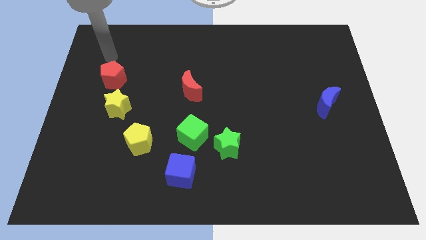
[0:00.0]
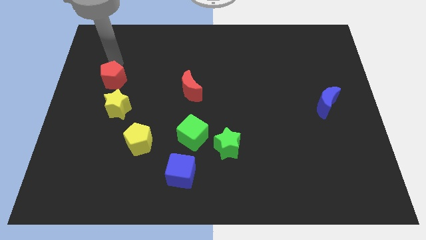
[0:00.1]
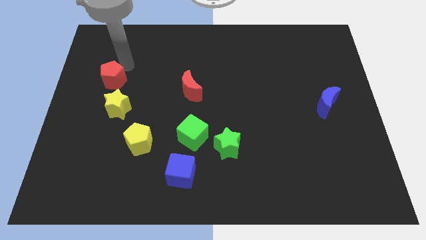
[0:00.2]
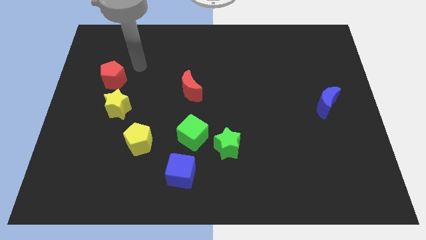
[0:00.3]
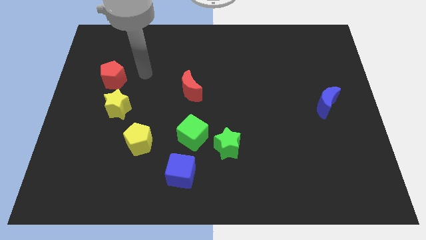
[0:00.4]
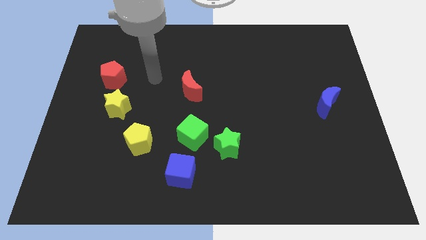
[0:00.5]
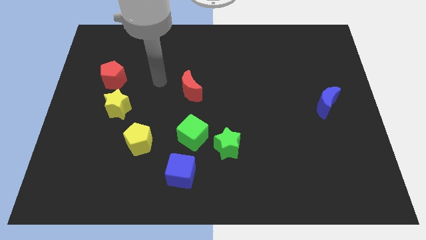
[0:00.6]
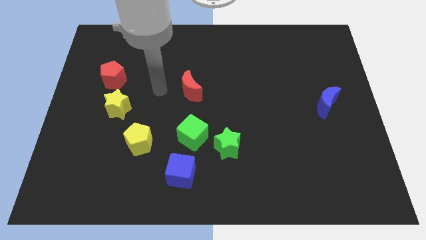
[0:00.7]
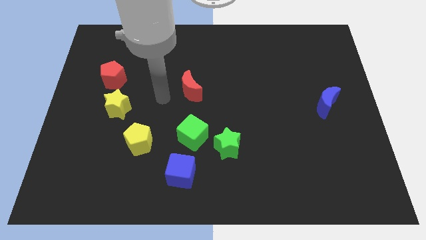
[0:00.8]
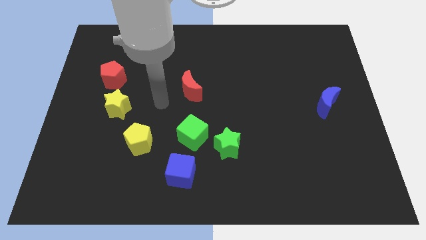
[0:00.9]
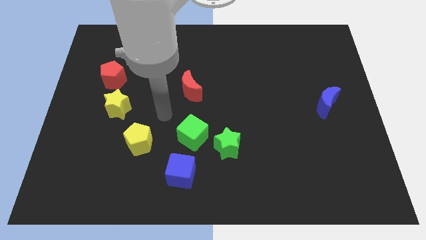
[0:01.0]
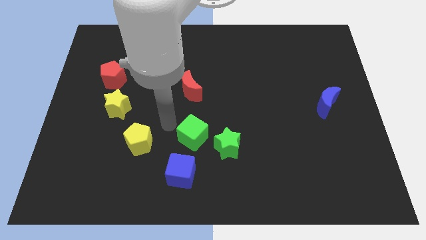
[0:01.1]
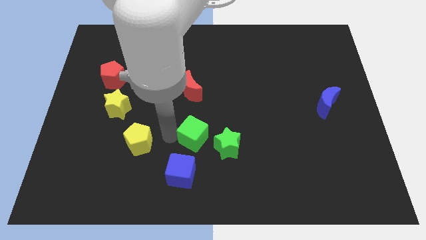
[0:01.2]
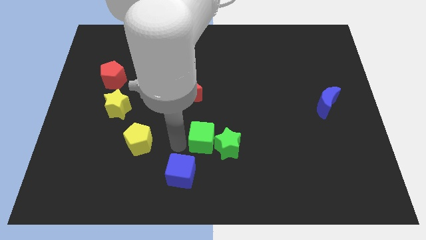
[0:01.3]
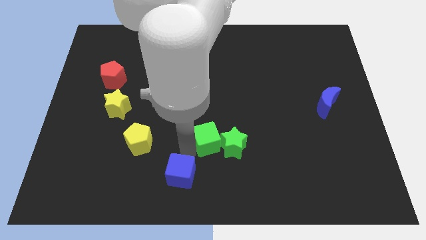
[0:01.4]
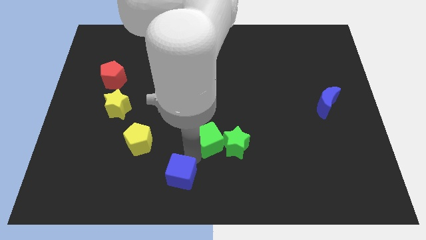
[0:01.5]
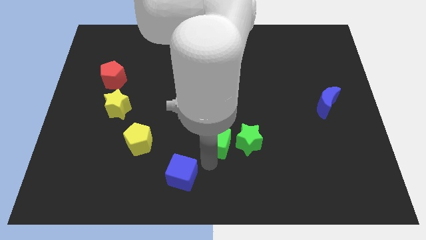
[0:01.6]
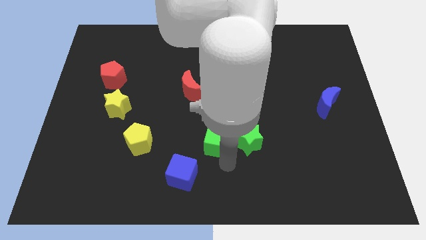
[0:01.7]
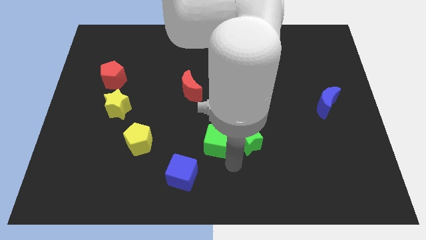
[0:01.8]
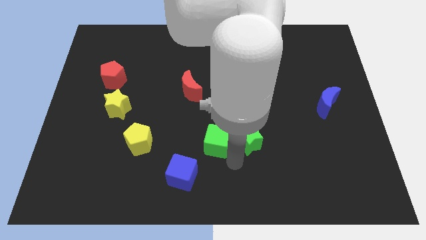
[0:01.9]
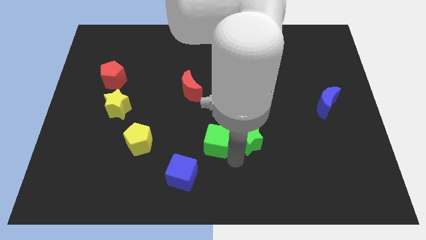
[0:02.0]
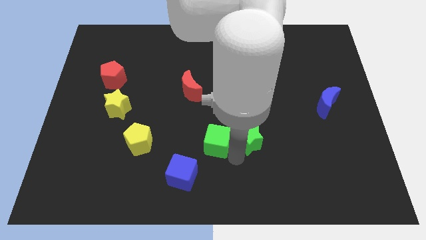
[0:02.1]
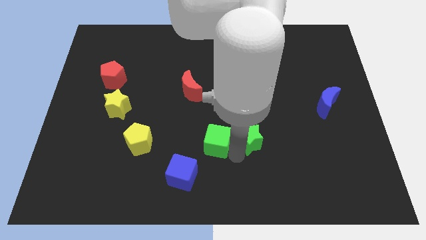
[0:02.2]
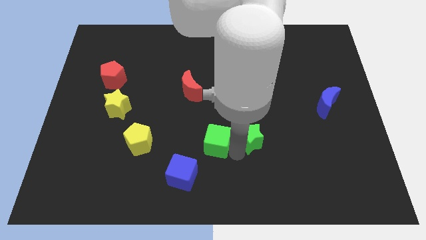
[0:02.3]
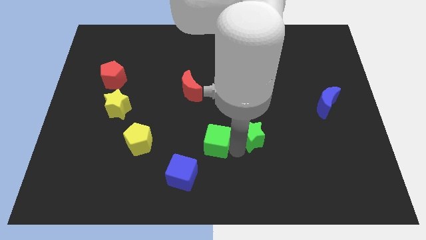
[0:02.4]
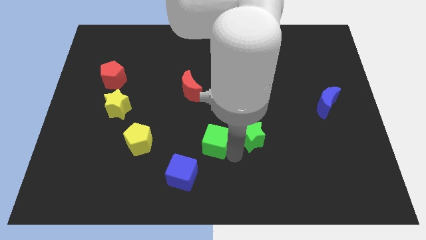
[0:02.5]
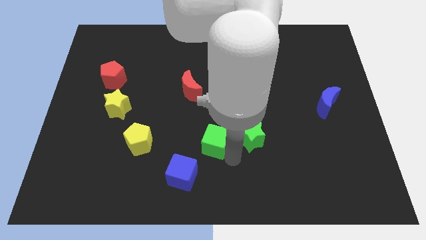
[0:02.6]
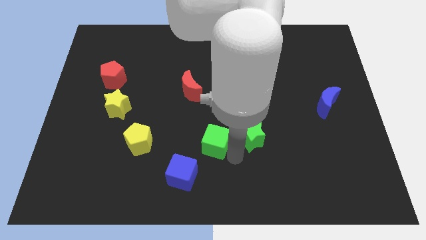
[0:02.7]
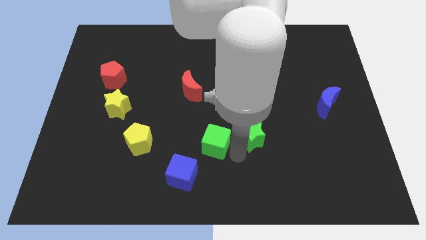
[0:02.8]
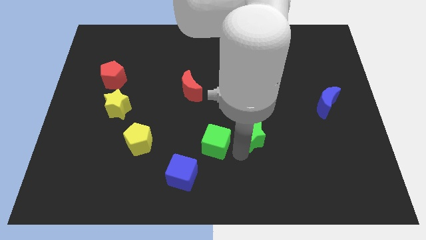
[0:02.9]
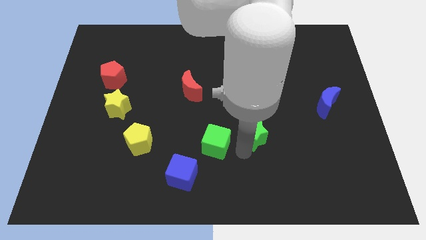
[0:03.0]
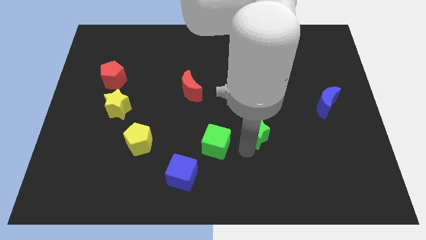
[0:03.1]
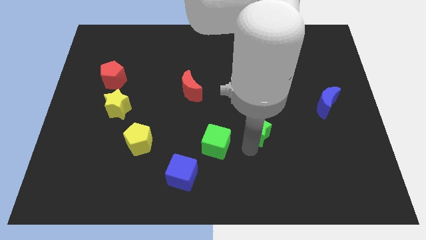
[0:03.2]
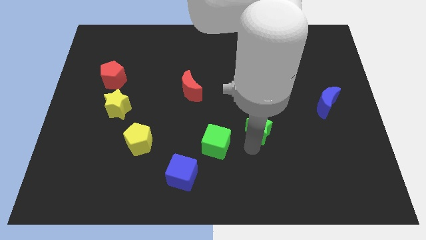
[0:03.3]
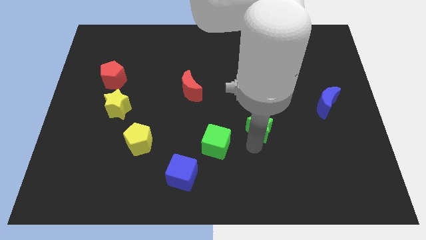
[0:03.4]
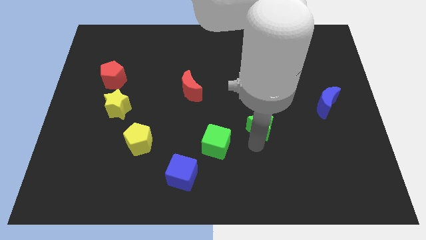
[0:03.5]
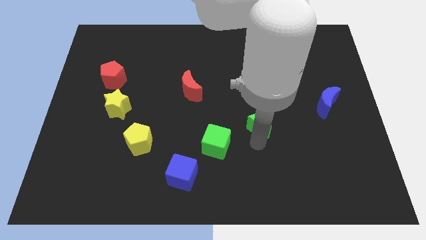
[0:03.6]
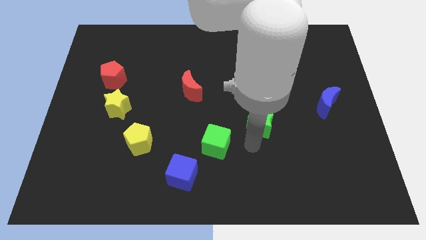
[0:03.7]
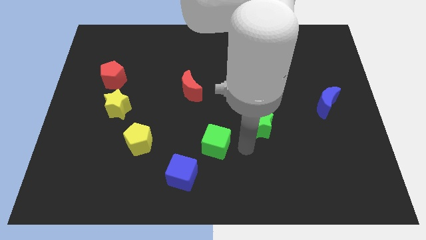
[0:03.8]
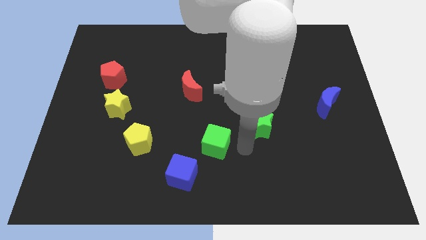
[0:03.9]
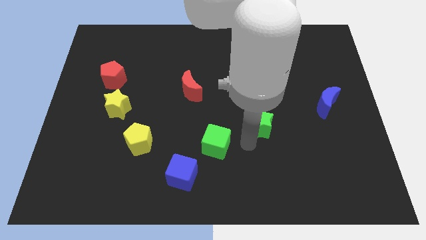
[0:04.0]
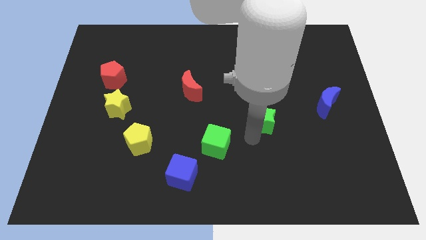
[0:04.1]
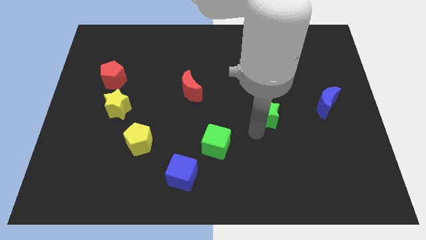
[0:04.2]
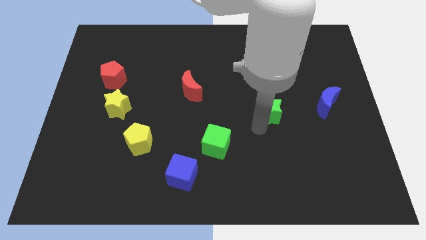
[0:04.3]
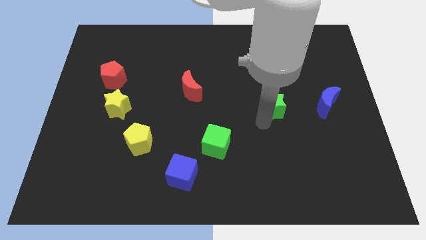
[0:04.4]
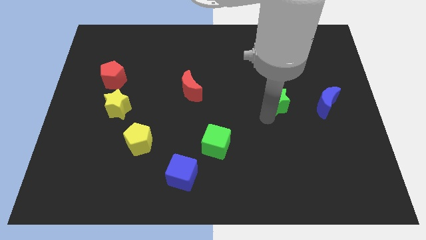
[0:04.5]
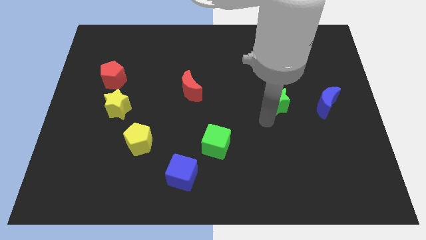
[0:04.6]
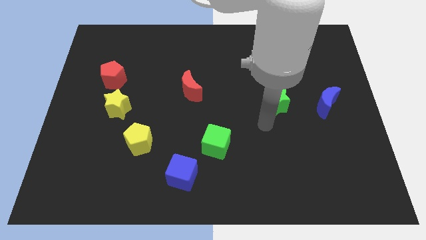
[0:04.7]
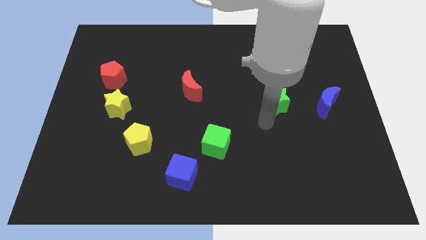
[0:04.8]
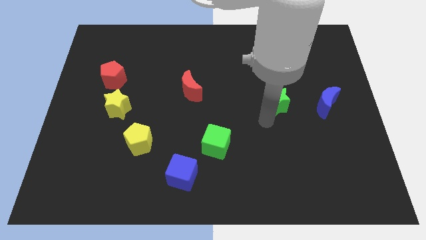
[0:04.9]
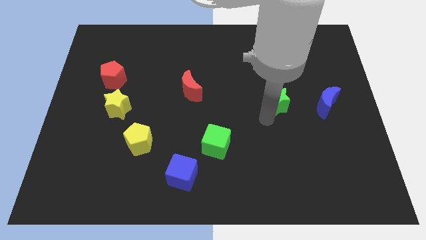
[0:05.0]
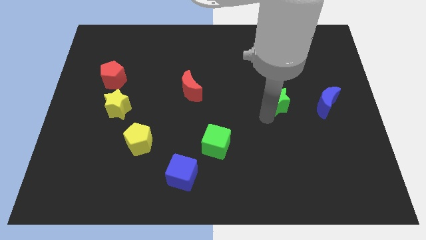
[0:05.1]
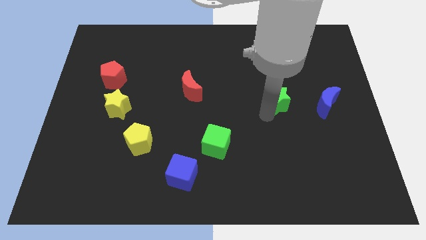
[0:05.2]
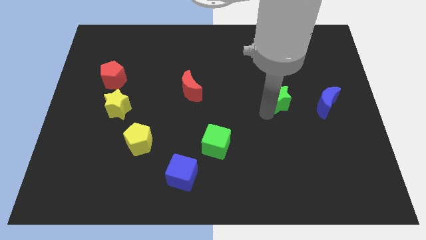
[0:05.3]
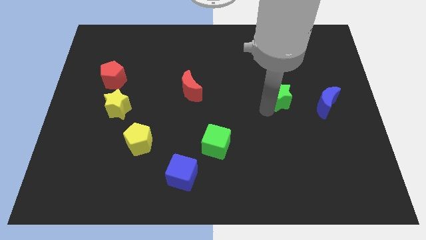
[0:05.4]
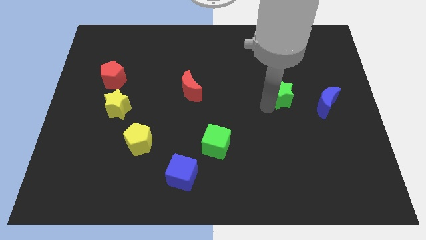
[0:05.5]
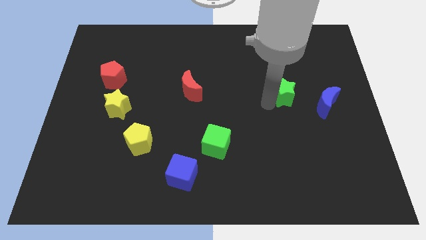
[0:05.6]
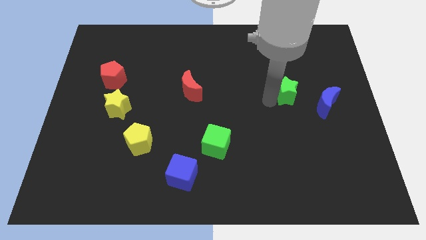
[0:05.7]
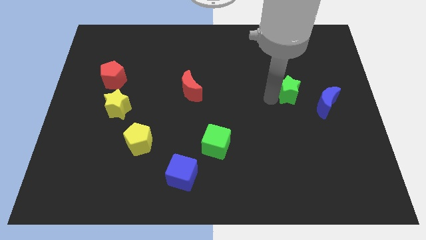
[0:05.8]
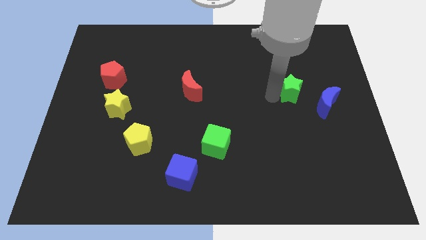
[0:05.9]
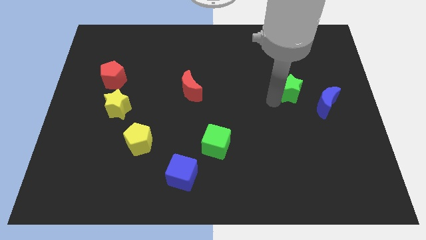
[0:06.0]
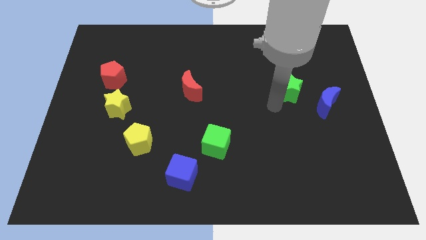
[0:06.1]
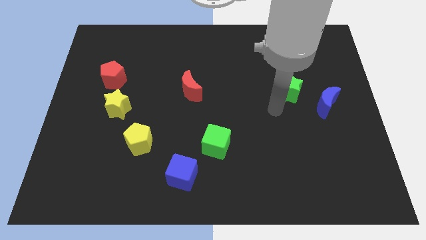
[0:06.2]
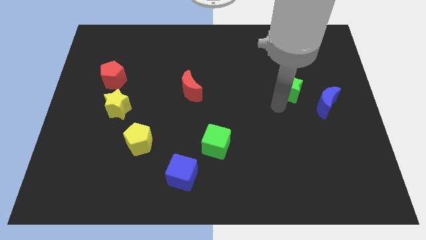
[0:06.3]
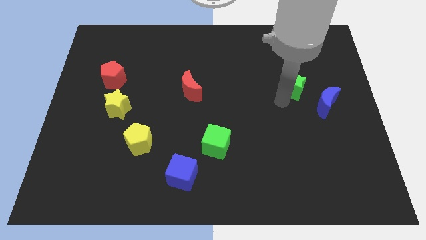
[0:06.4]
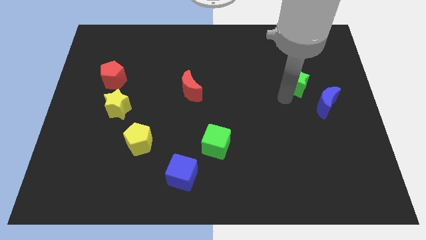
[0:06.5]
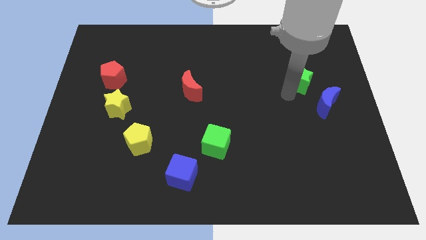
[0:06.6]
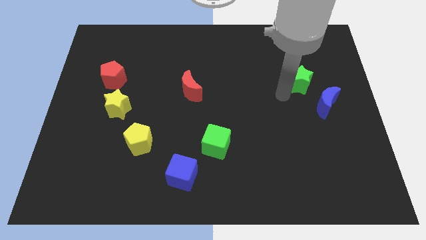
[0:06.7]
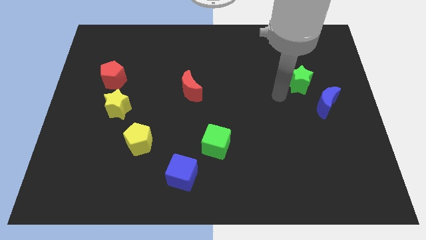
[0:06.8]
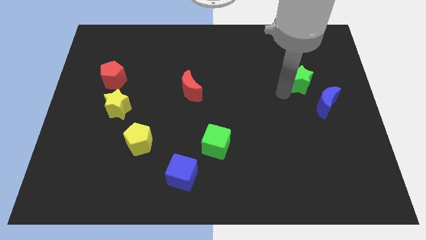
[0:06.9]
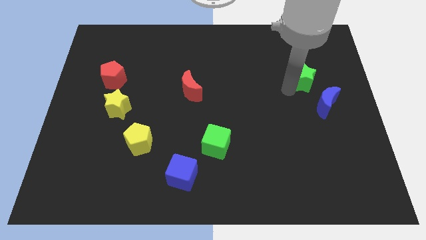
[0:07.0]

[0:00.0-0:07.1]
put the green star to the top side of the blue moon
